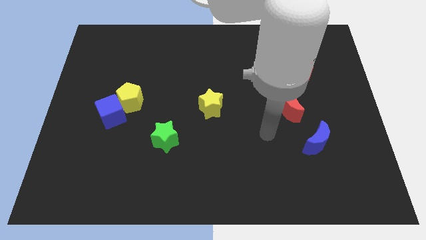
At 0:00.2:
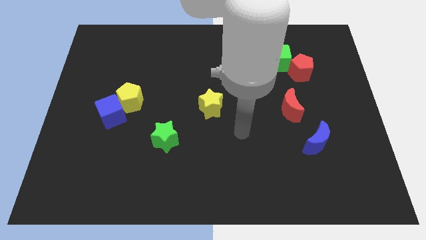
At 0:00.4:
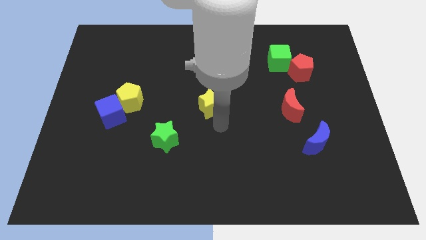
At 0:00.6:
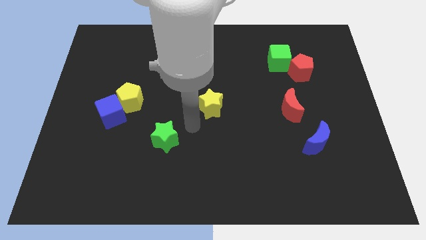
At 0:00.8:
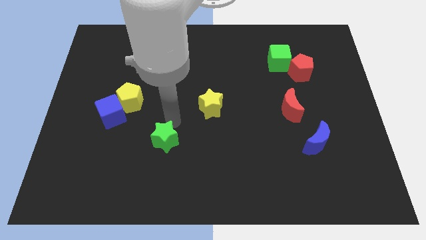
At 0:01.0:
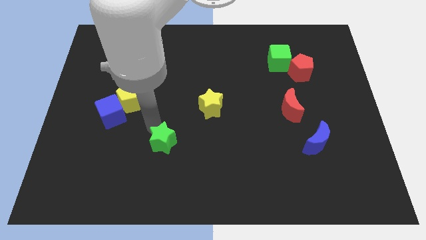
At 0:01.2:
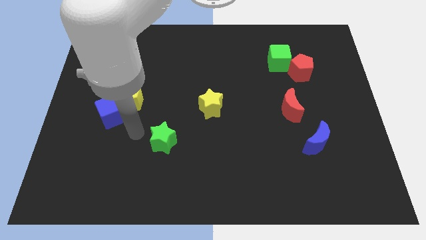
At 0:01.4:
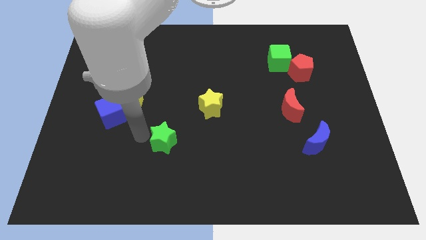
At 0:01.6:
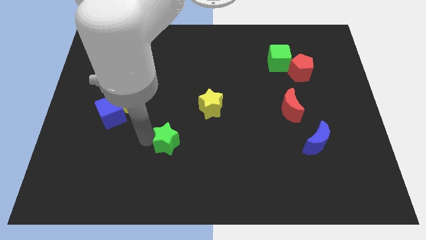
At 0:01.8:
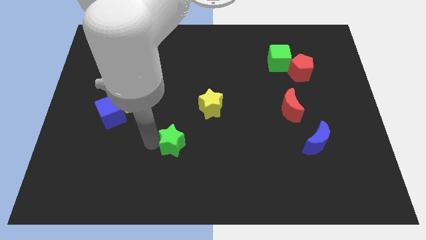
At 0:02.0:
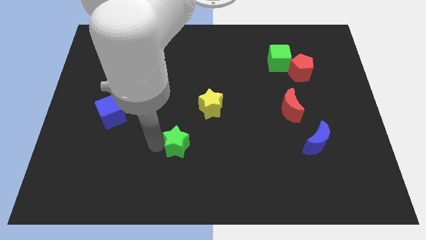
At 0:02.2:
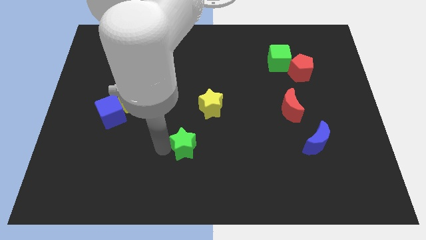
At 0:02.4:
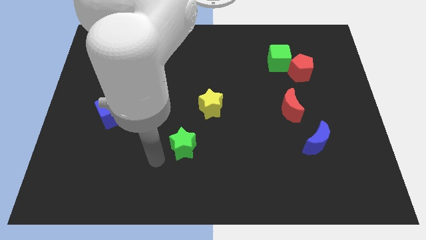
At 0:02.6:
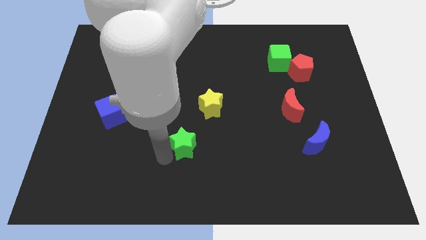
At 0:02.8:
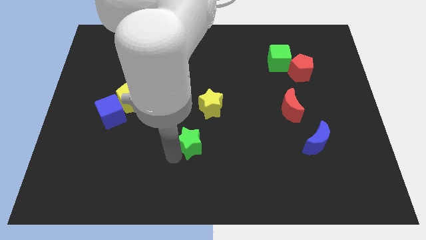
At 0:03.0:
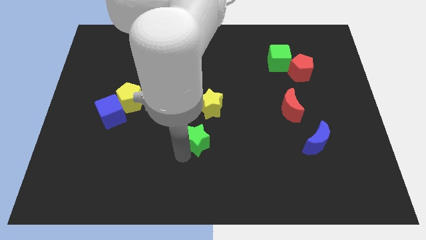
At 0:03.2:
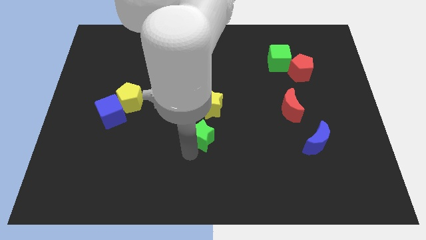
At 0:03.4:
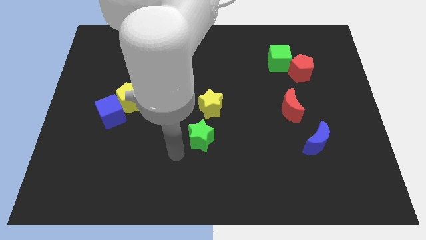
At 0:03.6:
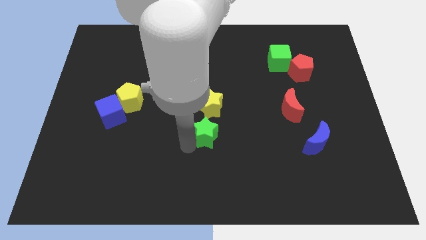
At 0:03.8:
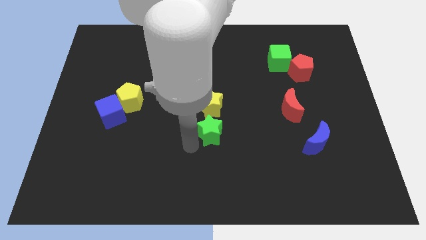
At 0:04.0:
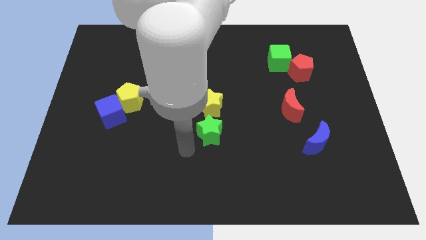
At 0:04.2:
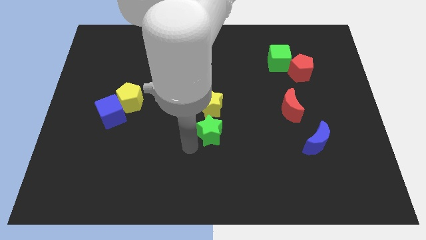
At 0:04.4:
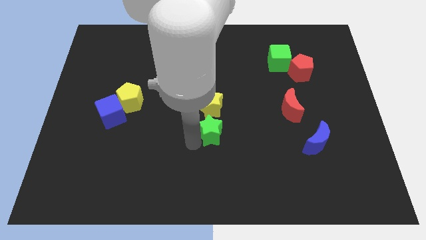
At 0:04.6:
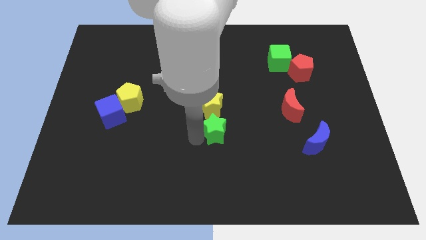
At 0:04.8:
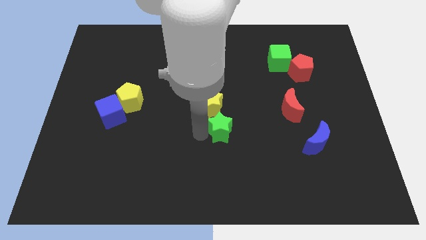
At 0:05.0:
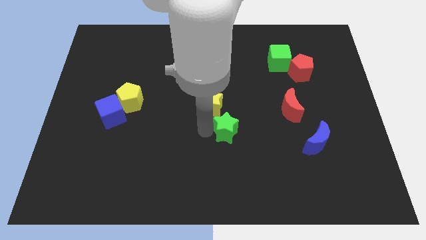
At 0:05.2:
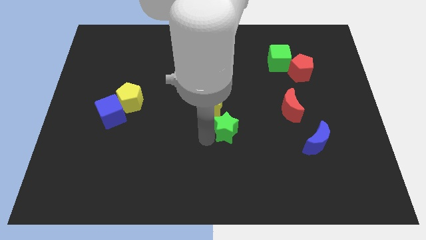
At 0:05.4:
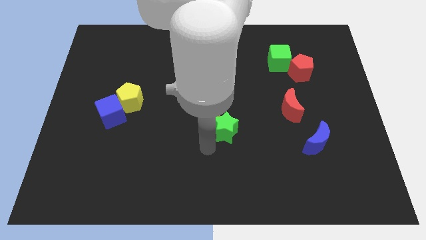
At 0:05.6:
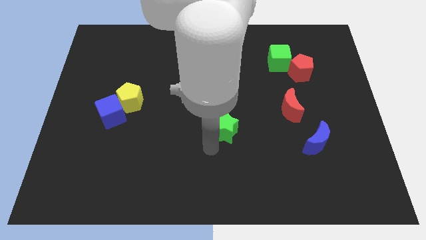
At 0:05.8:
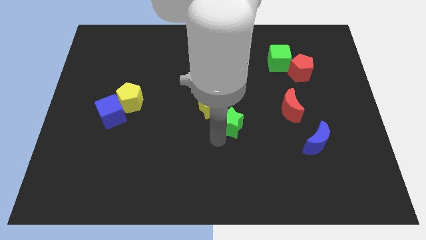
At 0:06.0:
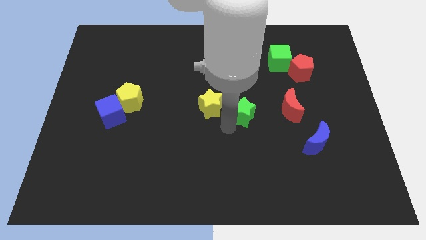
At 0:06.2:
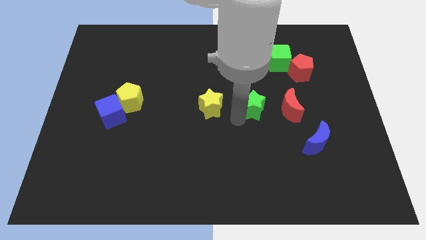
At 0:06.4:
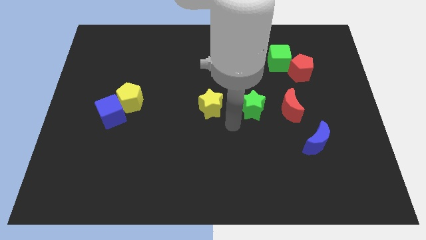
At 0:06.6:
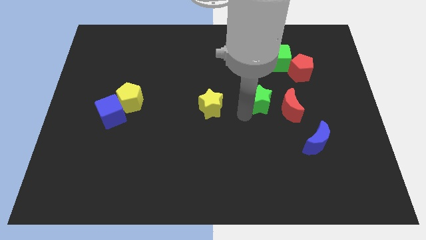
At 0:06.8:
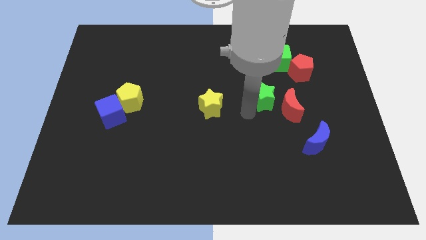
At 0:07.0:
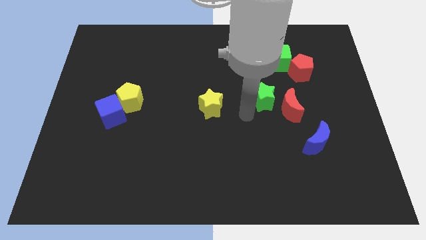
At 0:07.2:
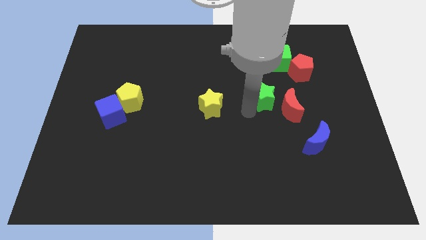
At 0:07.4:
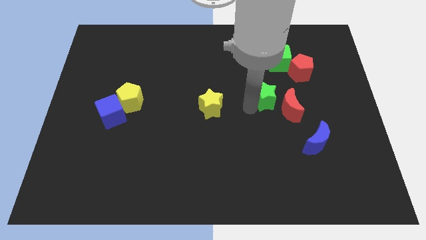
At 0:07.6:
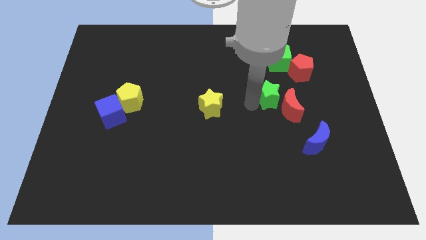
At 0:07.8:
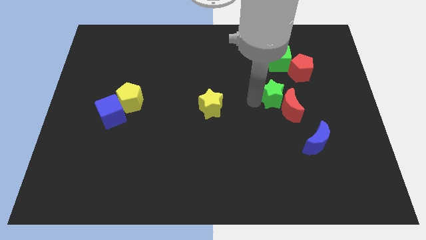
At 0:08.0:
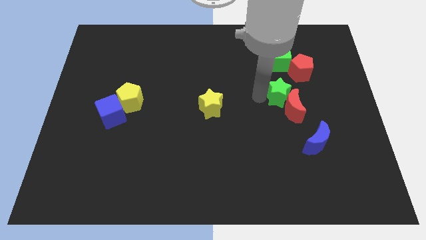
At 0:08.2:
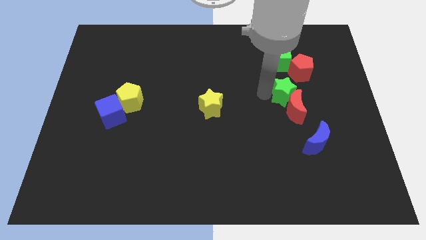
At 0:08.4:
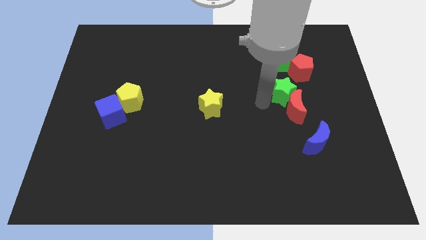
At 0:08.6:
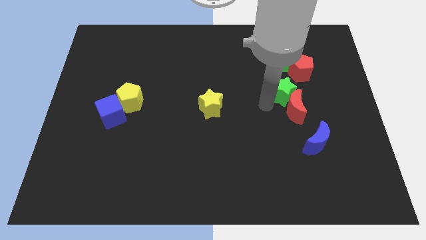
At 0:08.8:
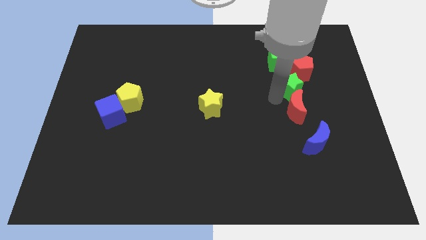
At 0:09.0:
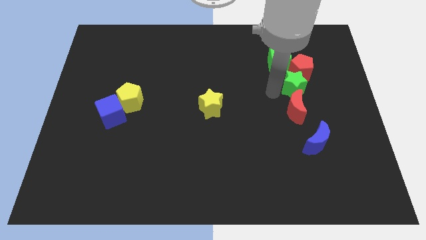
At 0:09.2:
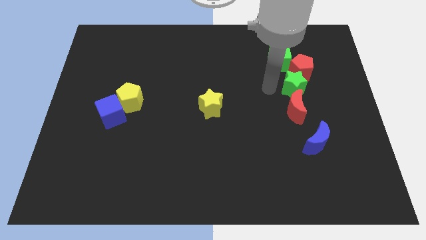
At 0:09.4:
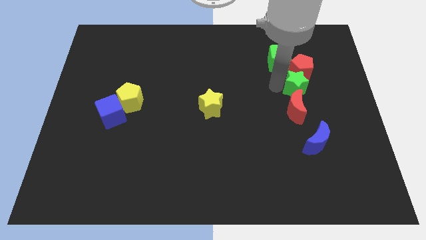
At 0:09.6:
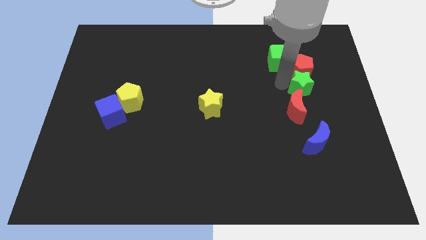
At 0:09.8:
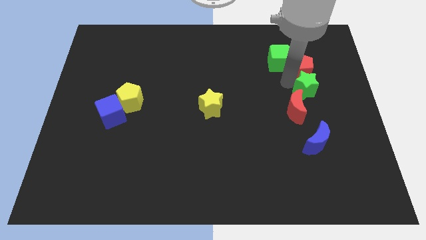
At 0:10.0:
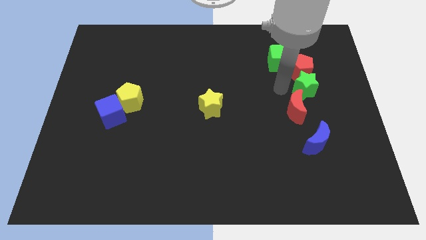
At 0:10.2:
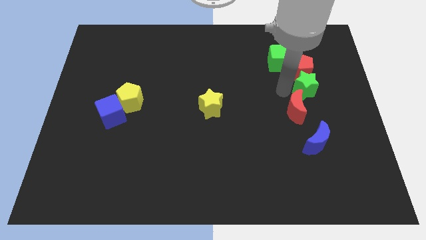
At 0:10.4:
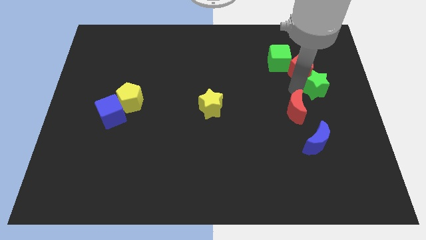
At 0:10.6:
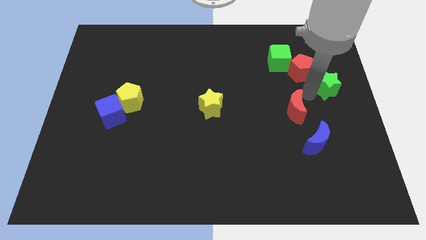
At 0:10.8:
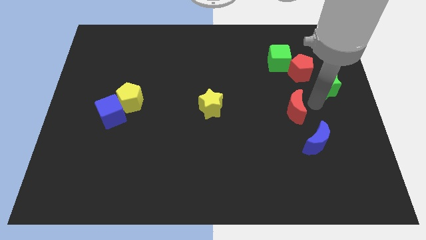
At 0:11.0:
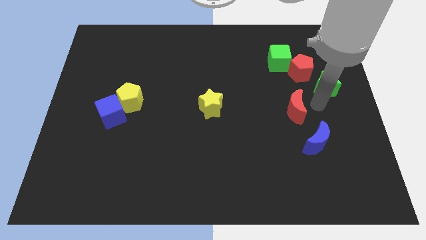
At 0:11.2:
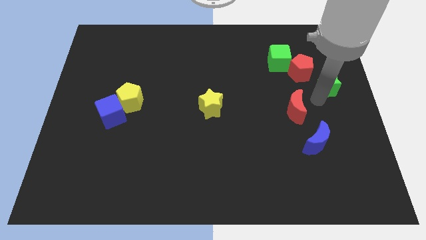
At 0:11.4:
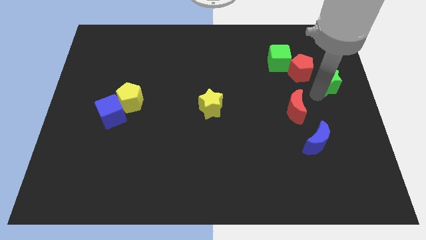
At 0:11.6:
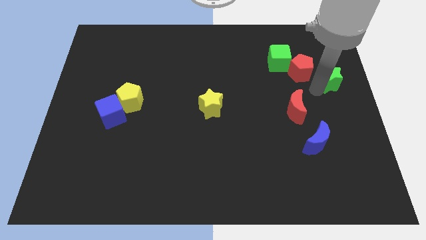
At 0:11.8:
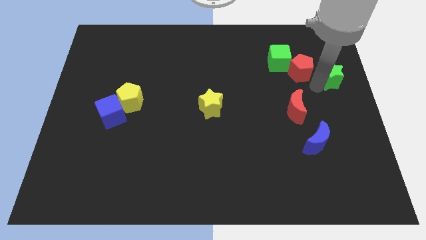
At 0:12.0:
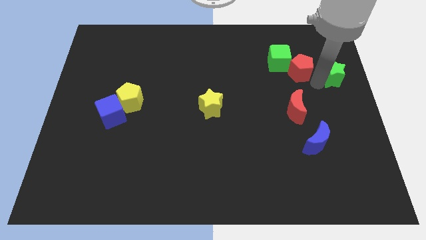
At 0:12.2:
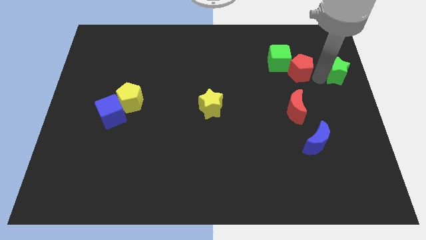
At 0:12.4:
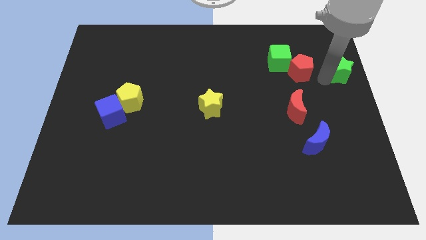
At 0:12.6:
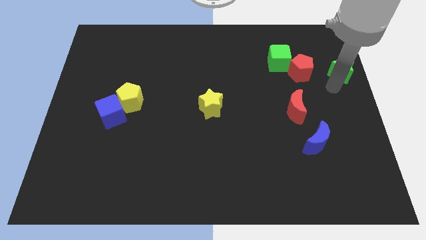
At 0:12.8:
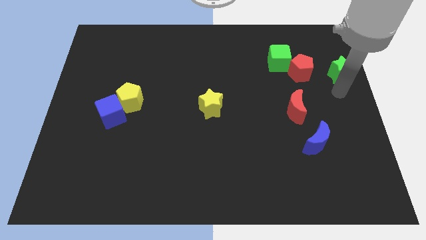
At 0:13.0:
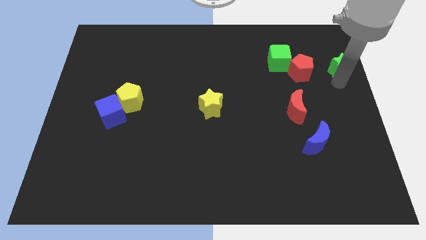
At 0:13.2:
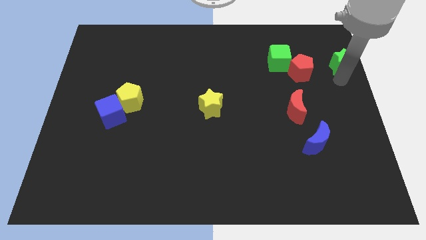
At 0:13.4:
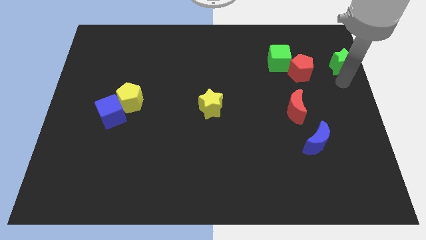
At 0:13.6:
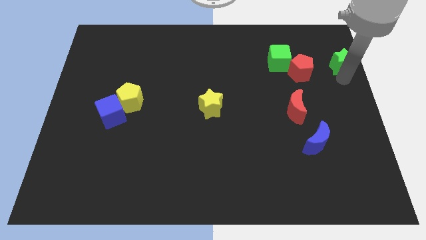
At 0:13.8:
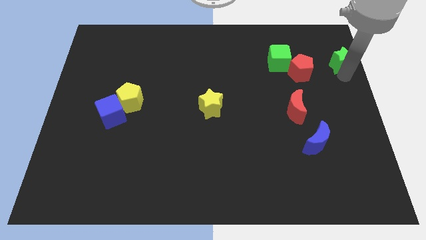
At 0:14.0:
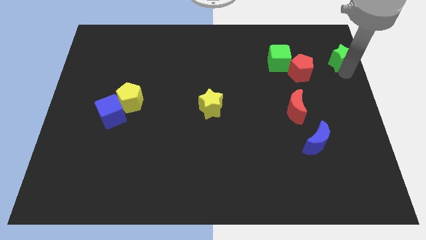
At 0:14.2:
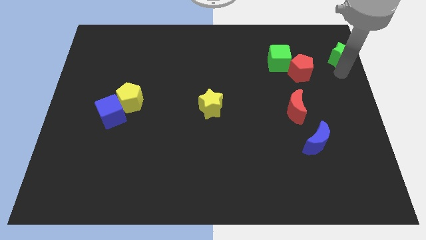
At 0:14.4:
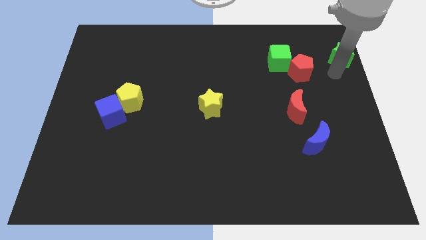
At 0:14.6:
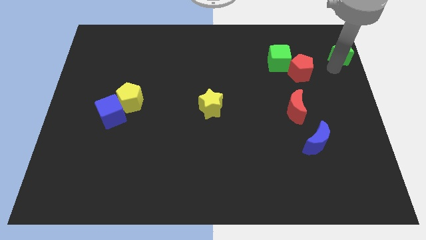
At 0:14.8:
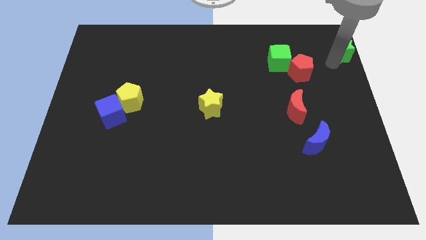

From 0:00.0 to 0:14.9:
slide the green star to the top right of the board
